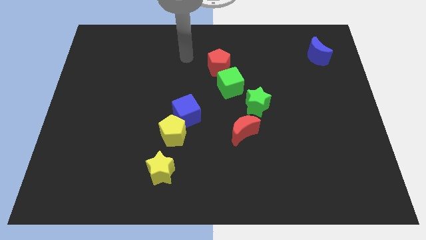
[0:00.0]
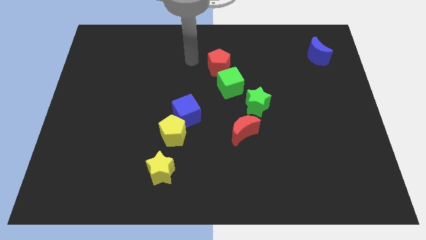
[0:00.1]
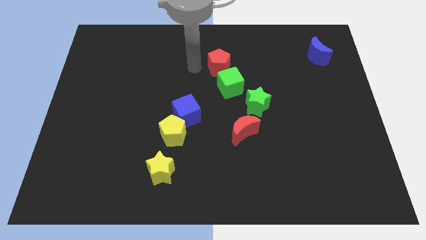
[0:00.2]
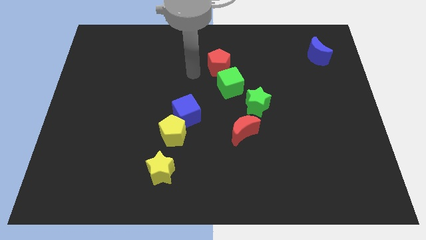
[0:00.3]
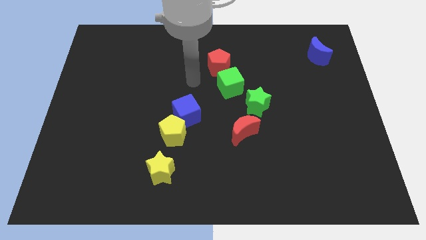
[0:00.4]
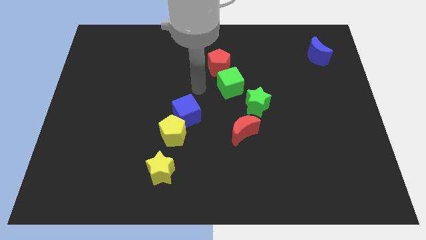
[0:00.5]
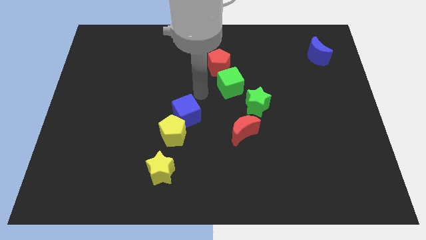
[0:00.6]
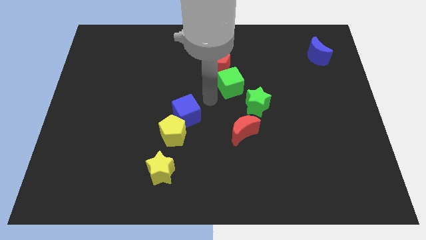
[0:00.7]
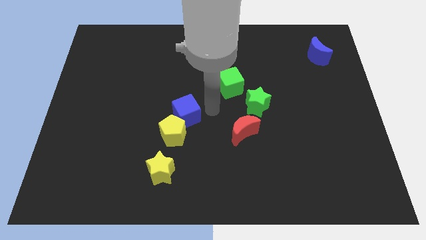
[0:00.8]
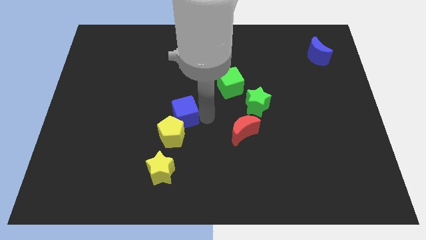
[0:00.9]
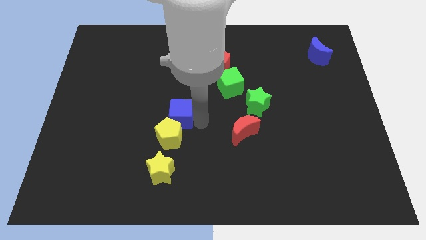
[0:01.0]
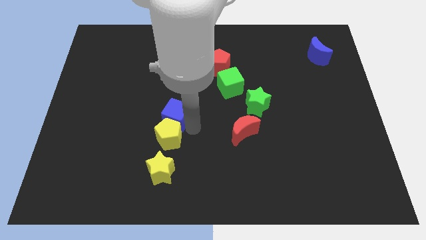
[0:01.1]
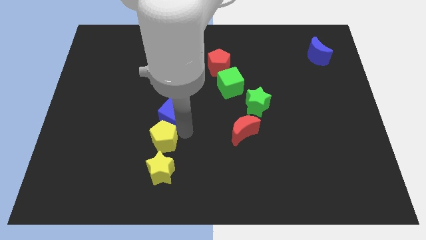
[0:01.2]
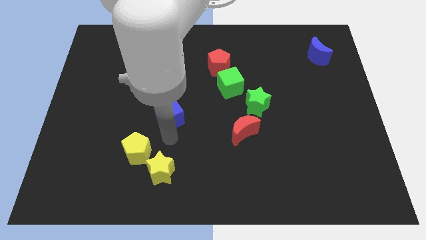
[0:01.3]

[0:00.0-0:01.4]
move the blue cube away from the yellow pentagon

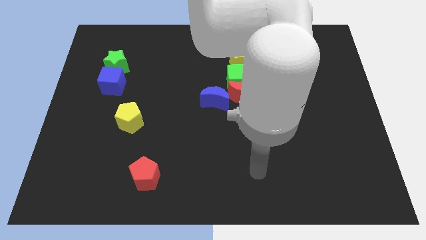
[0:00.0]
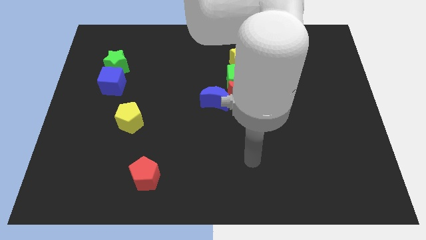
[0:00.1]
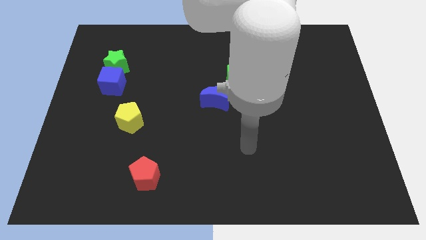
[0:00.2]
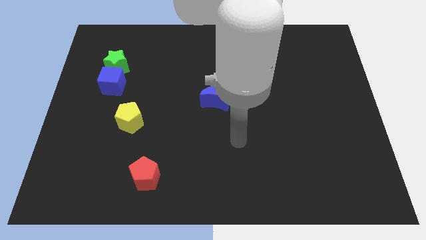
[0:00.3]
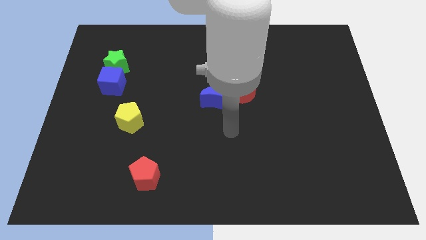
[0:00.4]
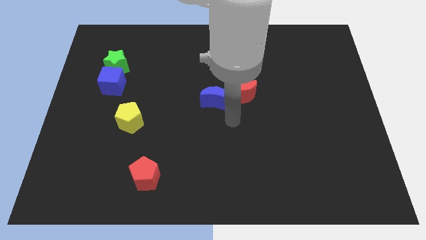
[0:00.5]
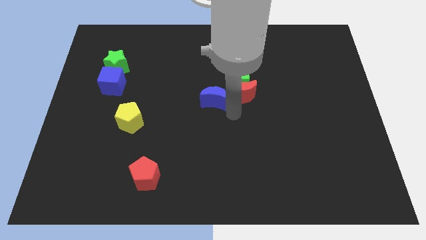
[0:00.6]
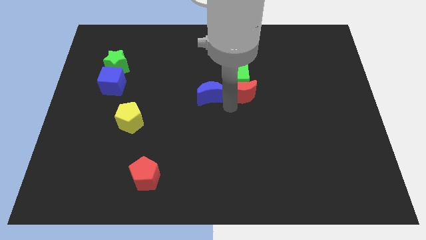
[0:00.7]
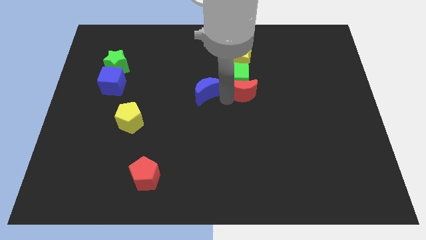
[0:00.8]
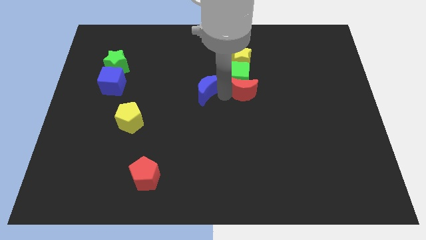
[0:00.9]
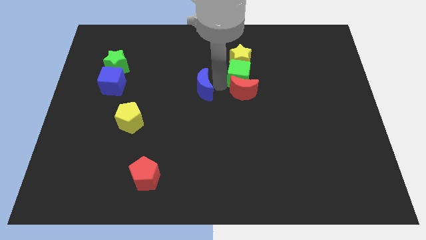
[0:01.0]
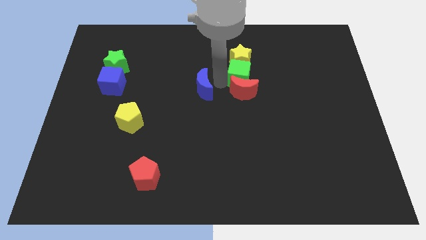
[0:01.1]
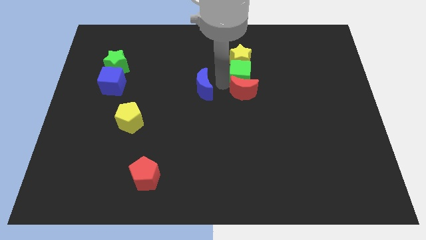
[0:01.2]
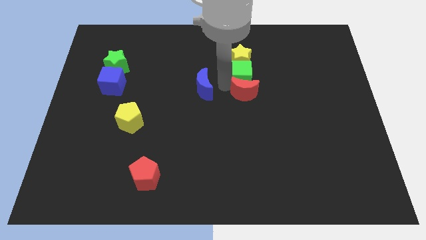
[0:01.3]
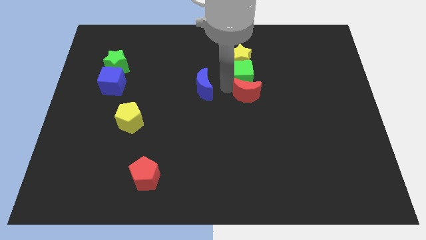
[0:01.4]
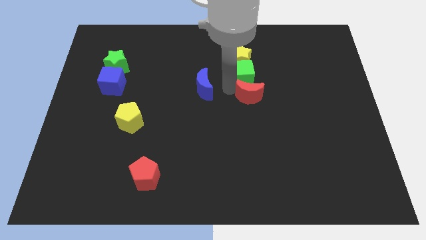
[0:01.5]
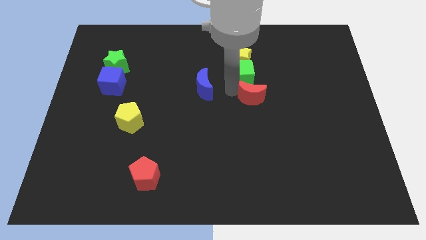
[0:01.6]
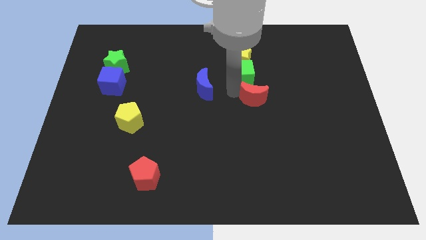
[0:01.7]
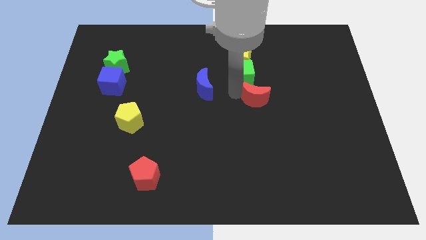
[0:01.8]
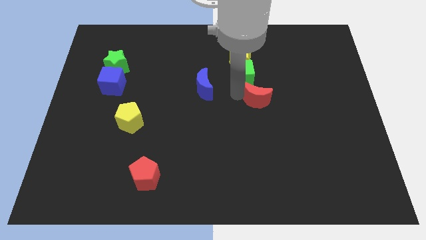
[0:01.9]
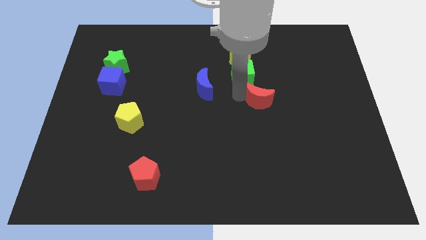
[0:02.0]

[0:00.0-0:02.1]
move the red moon away from the green cube and blue moon

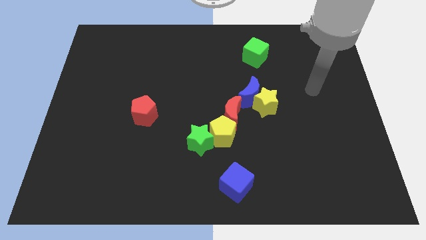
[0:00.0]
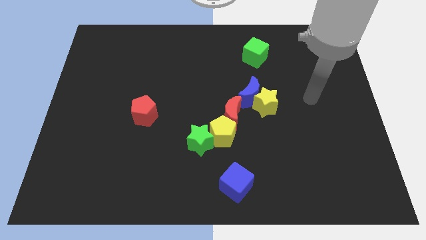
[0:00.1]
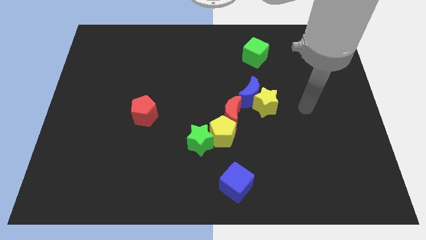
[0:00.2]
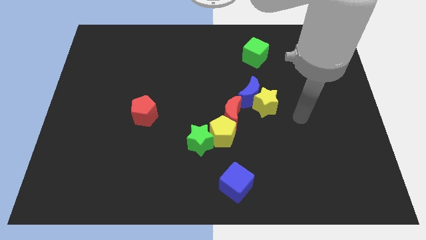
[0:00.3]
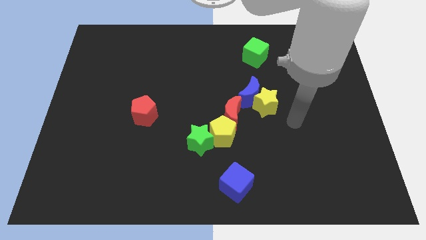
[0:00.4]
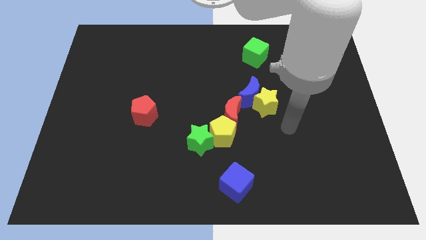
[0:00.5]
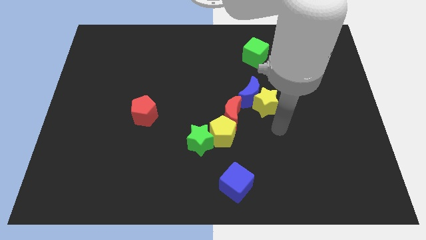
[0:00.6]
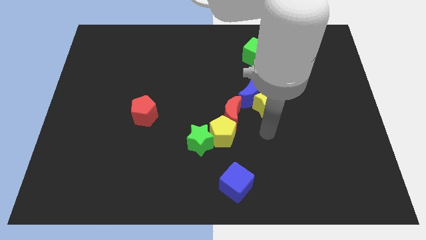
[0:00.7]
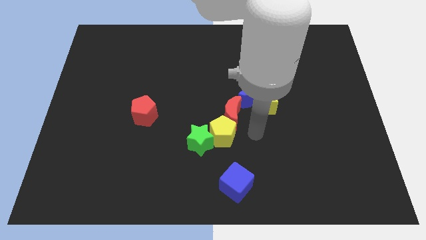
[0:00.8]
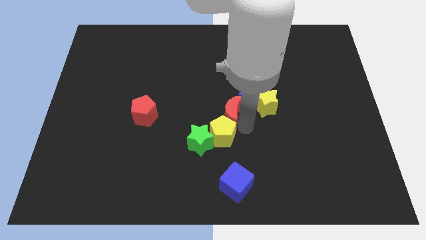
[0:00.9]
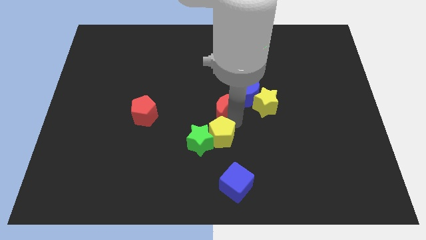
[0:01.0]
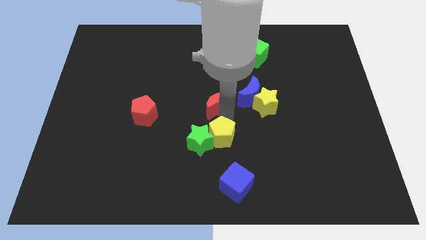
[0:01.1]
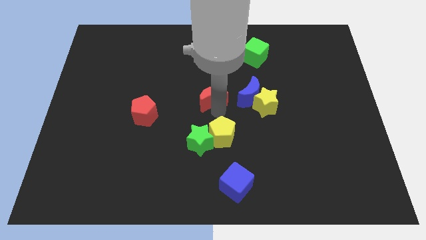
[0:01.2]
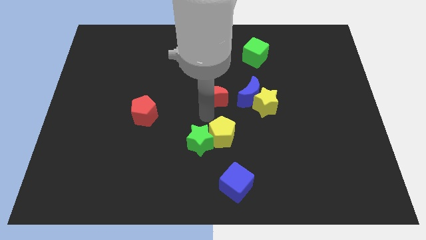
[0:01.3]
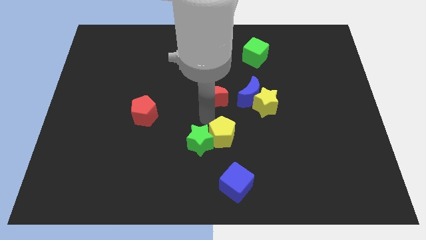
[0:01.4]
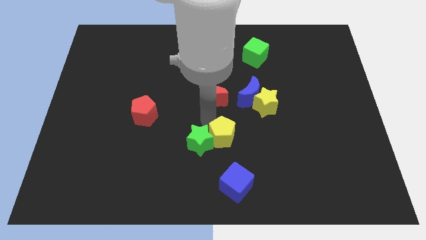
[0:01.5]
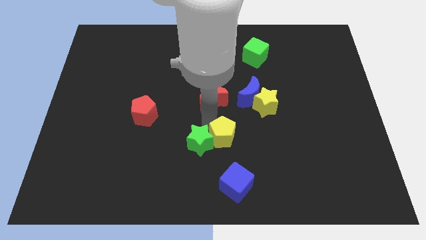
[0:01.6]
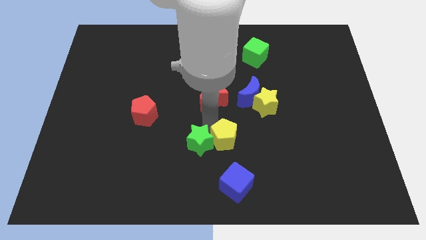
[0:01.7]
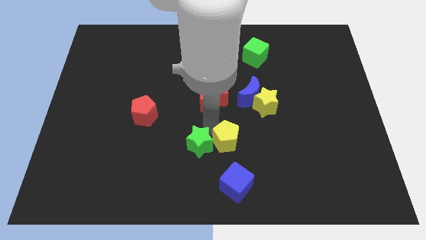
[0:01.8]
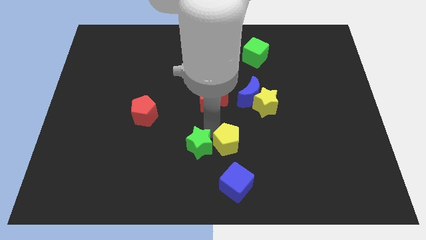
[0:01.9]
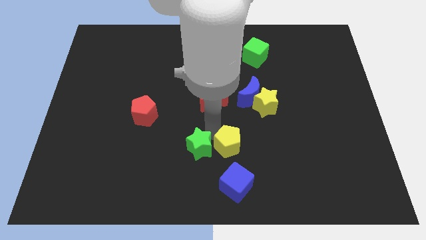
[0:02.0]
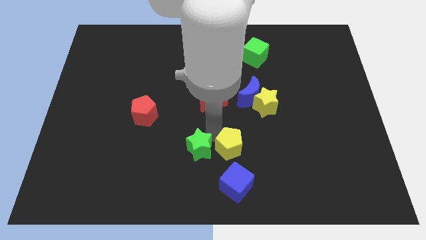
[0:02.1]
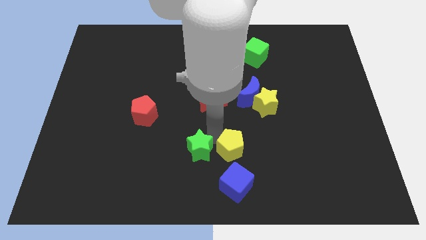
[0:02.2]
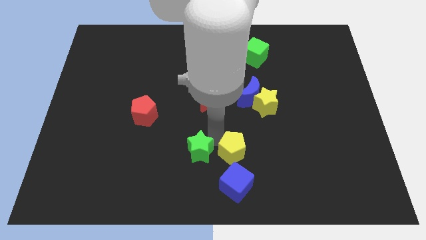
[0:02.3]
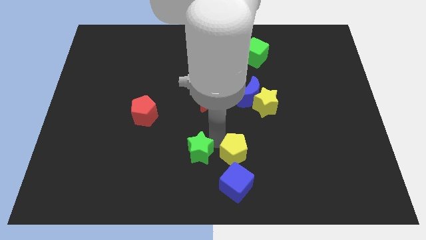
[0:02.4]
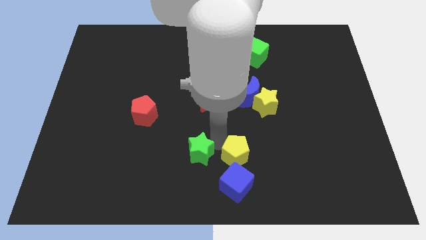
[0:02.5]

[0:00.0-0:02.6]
separate the yellow pentagon from the green star and red moon

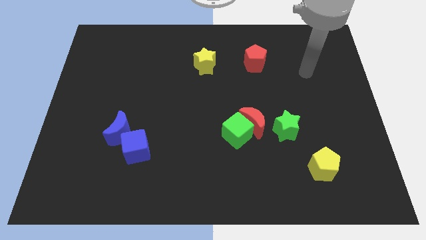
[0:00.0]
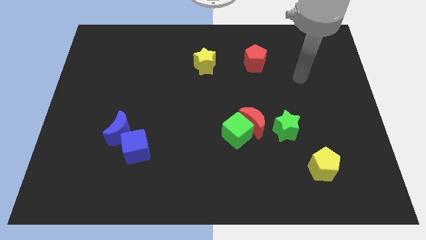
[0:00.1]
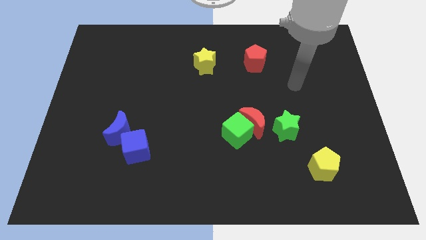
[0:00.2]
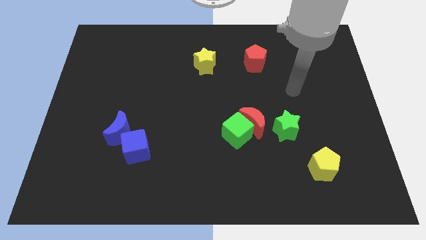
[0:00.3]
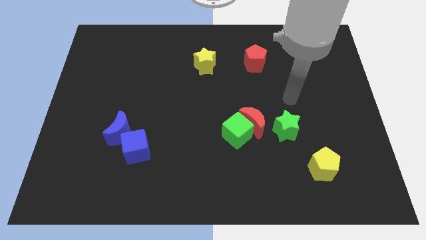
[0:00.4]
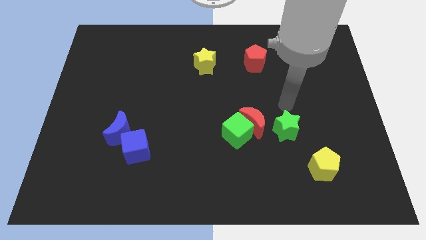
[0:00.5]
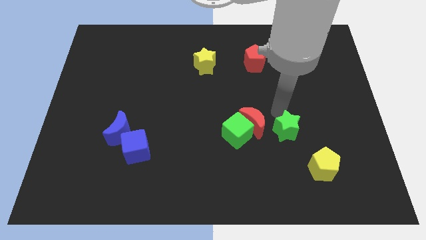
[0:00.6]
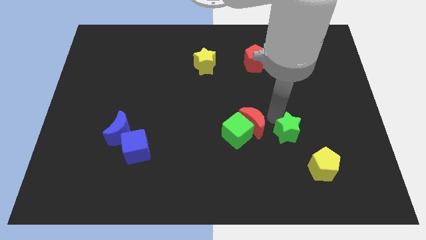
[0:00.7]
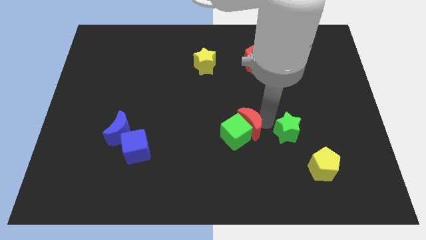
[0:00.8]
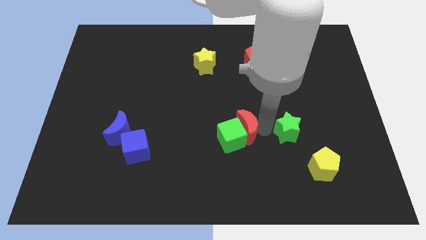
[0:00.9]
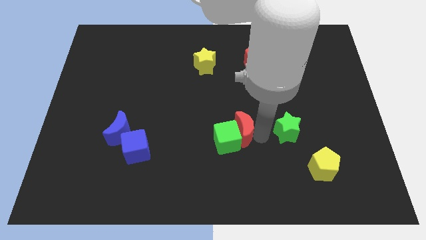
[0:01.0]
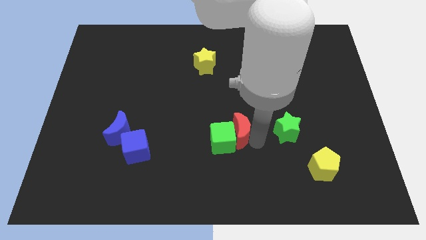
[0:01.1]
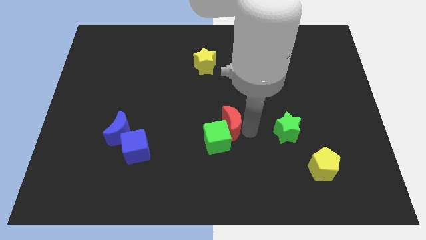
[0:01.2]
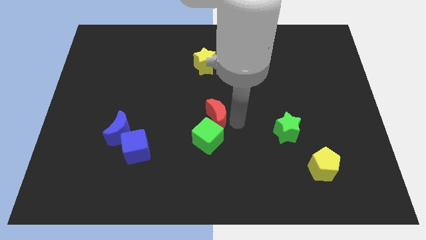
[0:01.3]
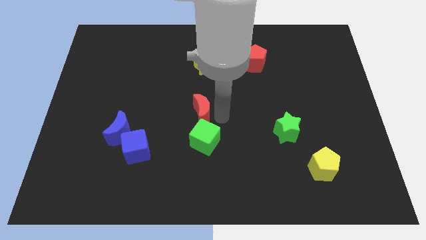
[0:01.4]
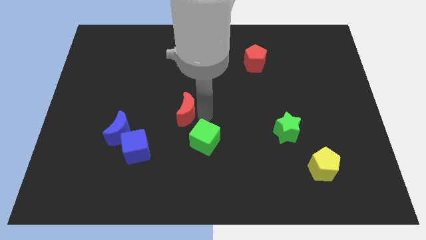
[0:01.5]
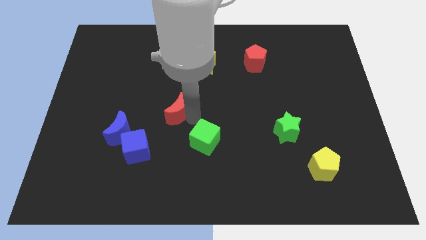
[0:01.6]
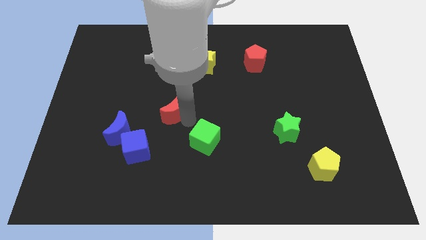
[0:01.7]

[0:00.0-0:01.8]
pull the green cube apart from the red moon

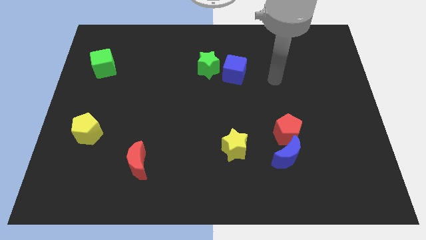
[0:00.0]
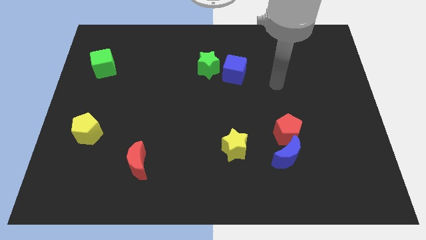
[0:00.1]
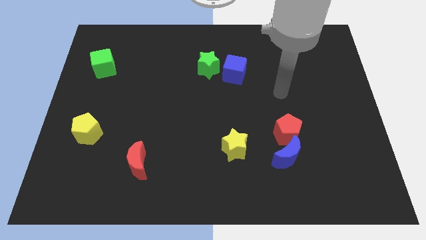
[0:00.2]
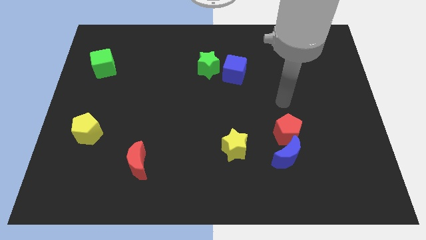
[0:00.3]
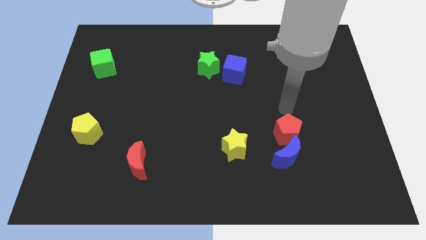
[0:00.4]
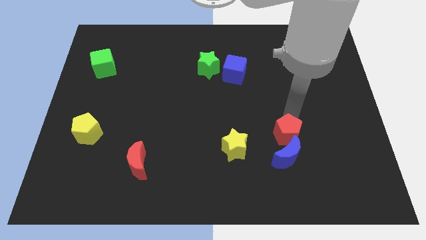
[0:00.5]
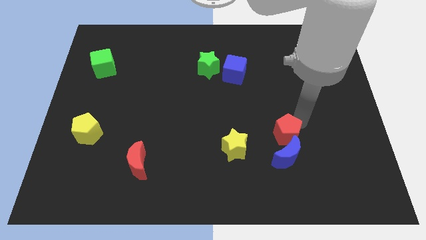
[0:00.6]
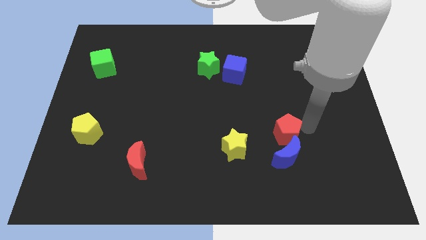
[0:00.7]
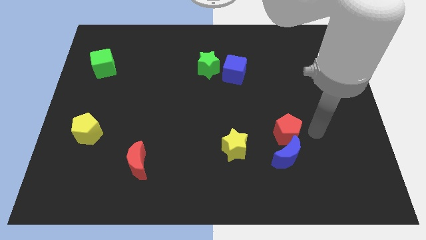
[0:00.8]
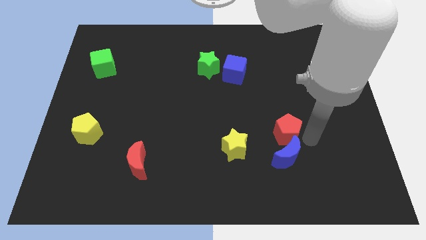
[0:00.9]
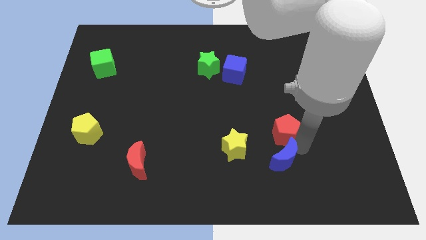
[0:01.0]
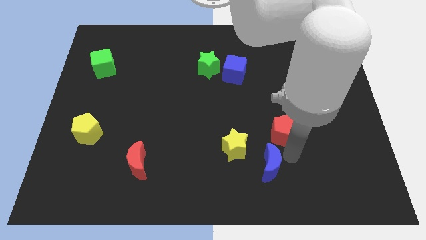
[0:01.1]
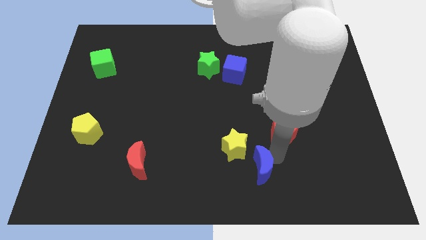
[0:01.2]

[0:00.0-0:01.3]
pull the red pentagon apart from the blue moon
